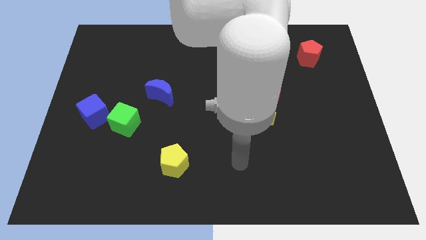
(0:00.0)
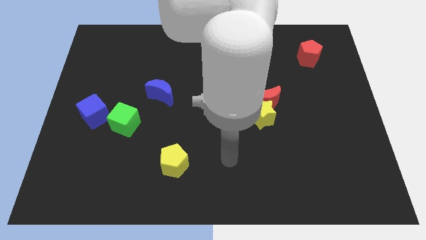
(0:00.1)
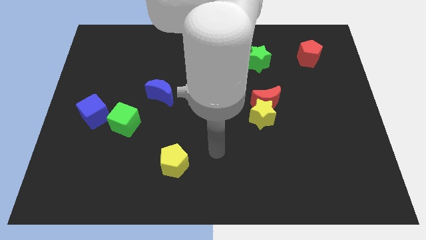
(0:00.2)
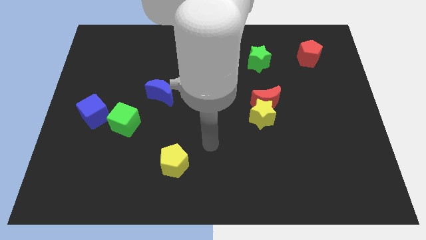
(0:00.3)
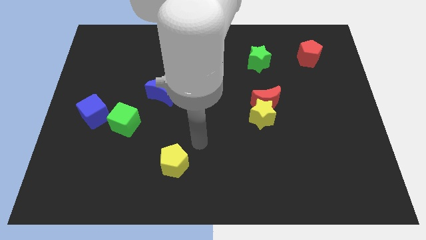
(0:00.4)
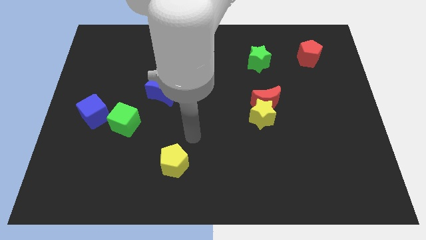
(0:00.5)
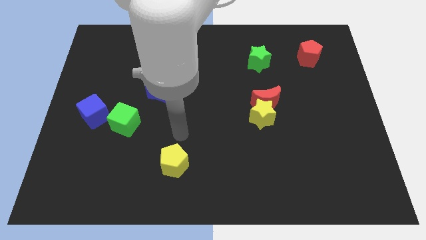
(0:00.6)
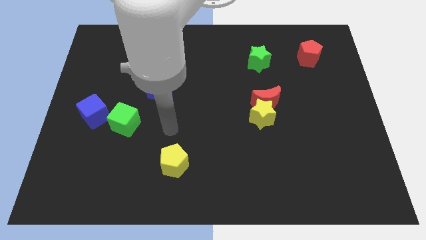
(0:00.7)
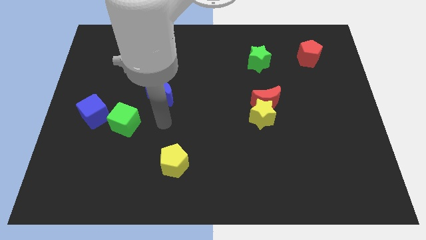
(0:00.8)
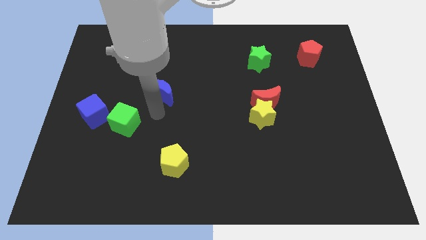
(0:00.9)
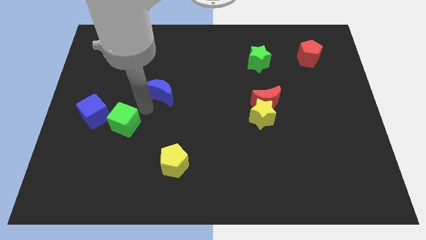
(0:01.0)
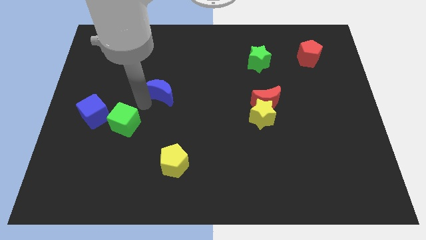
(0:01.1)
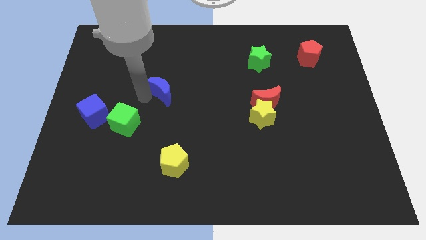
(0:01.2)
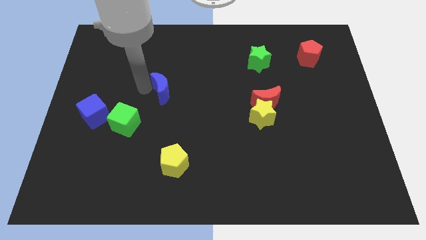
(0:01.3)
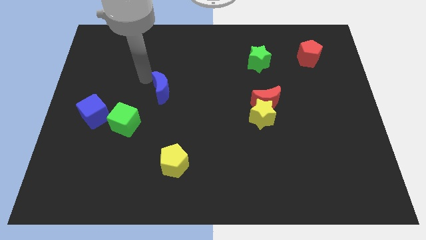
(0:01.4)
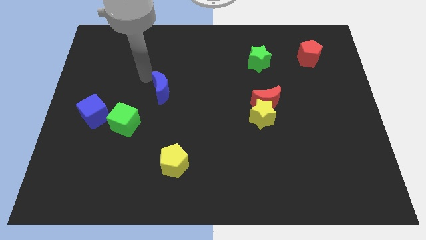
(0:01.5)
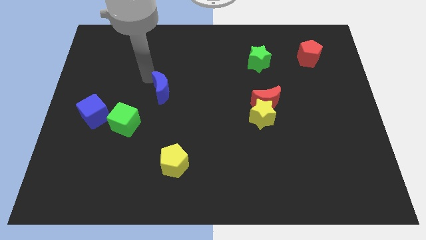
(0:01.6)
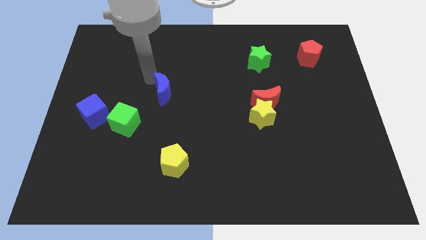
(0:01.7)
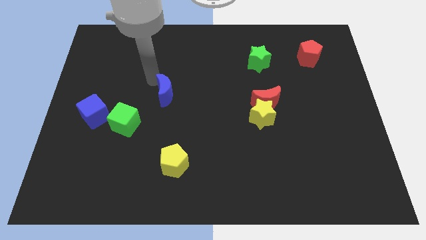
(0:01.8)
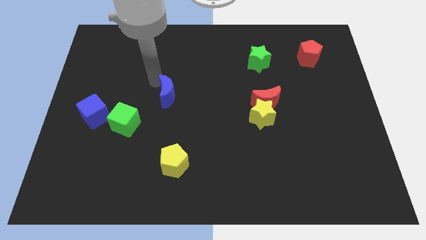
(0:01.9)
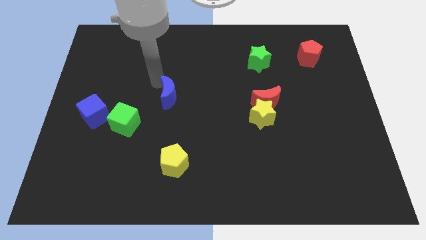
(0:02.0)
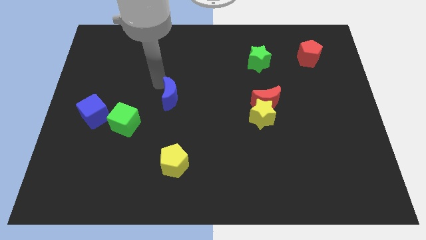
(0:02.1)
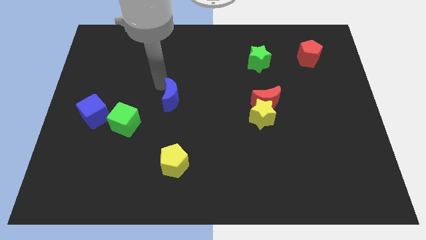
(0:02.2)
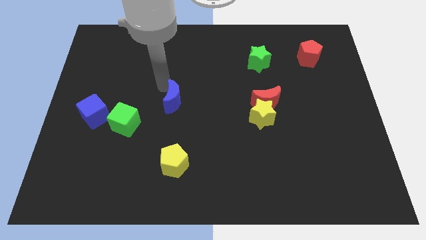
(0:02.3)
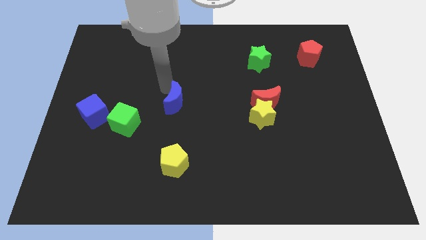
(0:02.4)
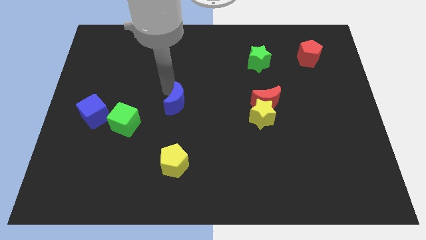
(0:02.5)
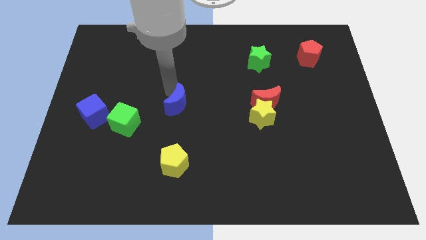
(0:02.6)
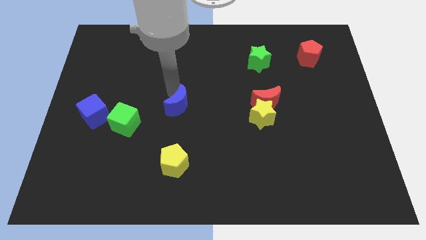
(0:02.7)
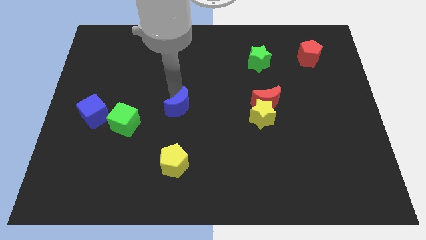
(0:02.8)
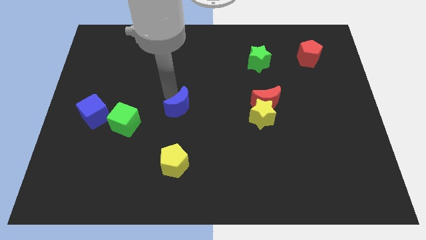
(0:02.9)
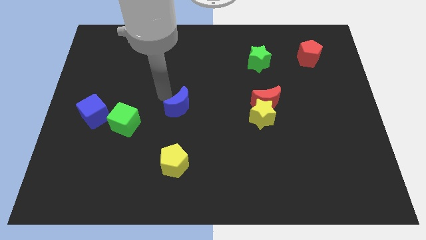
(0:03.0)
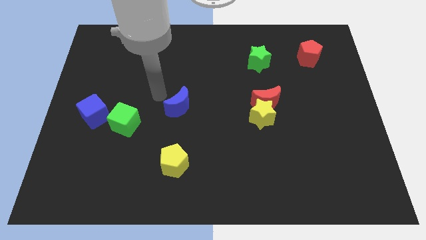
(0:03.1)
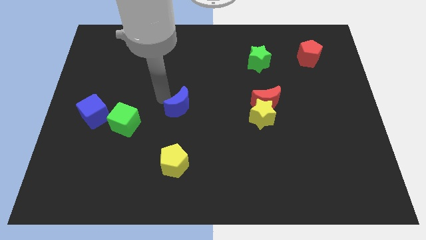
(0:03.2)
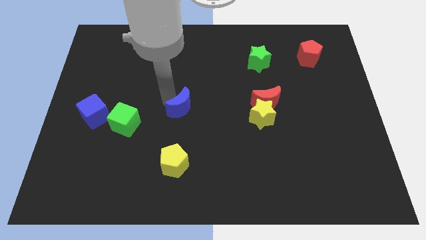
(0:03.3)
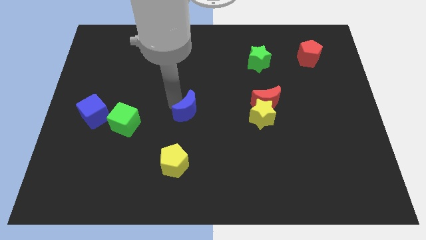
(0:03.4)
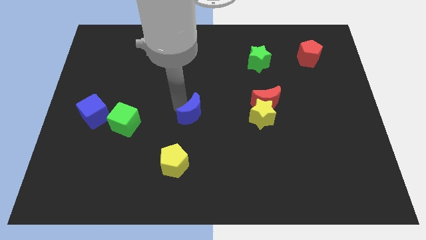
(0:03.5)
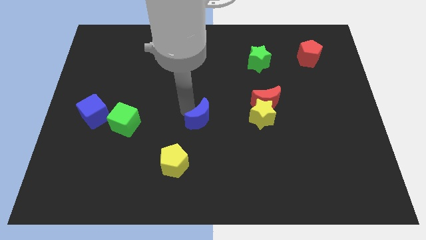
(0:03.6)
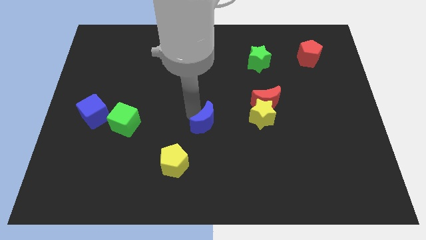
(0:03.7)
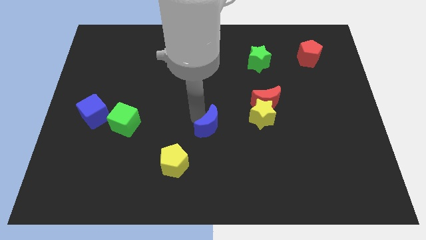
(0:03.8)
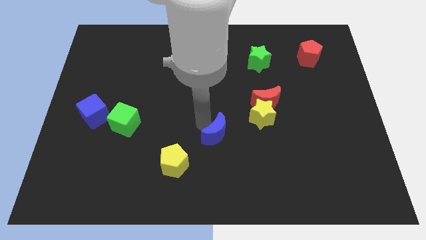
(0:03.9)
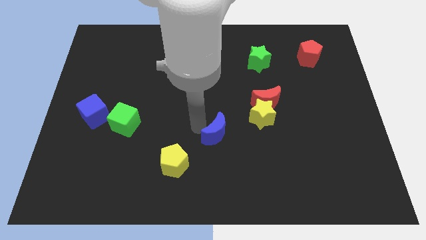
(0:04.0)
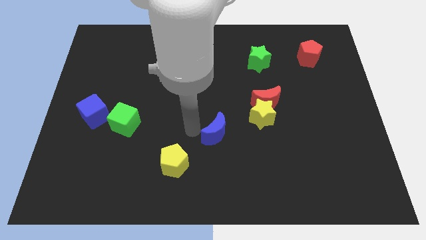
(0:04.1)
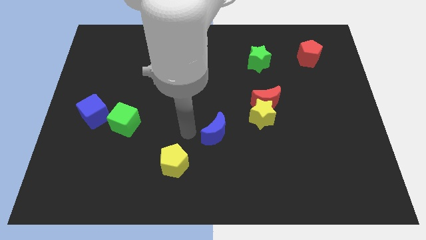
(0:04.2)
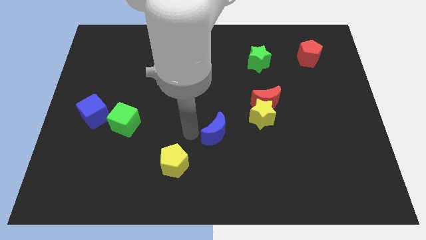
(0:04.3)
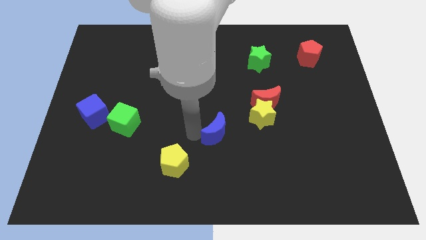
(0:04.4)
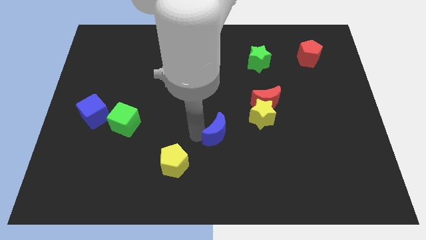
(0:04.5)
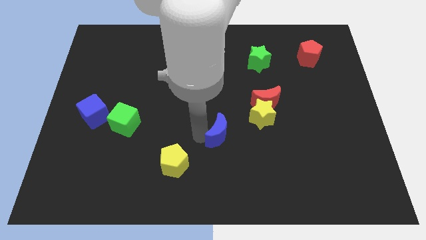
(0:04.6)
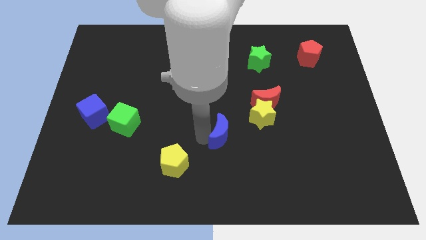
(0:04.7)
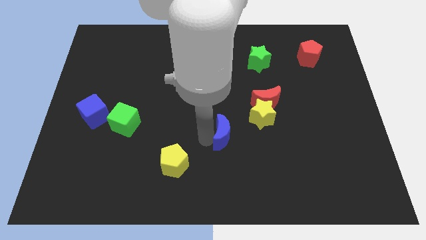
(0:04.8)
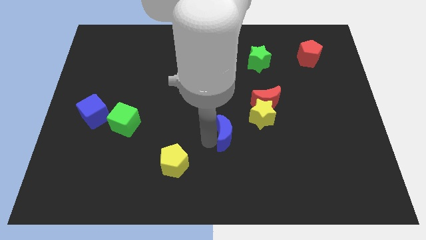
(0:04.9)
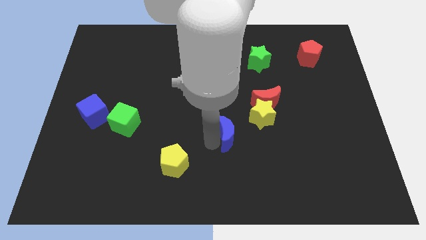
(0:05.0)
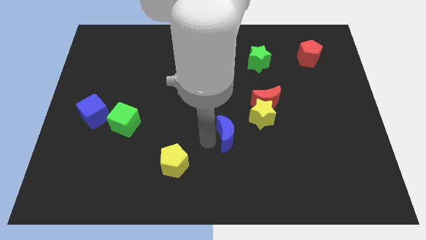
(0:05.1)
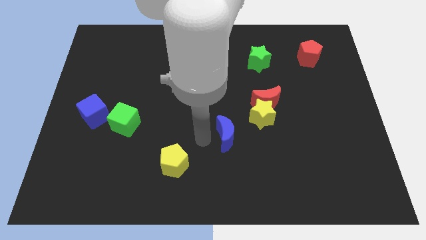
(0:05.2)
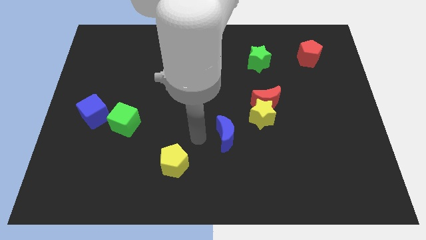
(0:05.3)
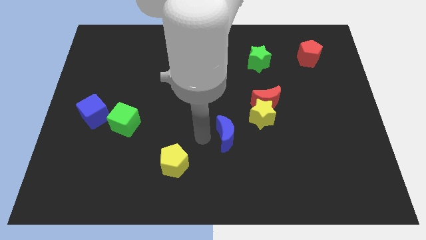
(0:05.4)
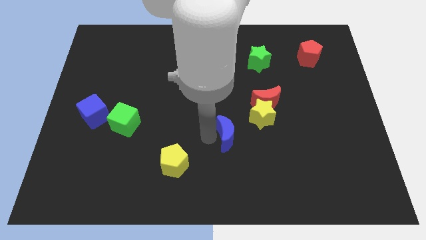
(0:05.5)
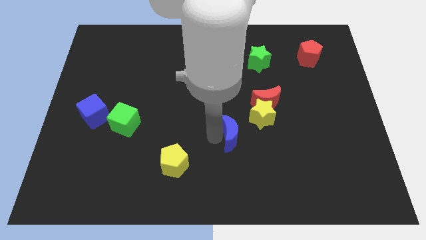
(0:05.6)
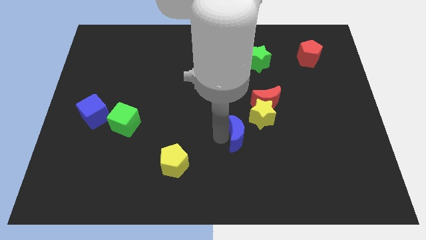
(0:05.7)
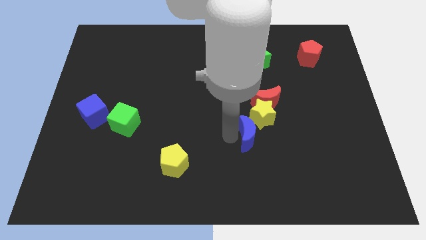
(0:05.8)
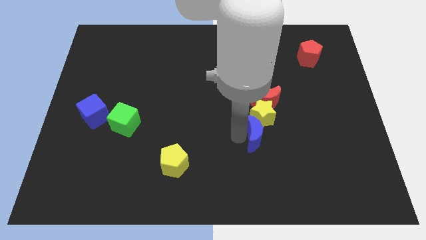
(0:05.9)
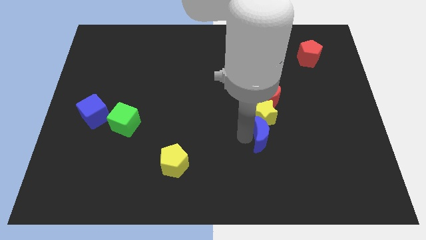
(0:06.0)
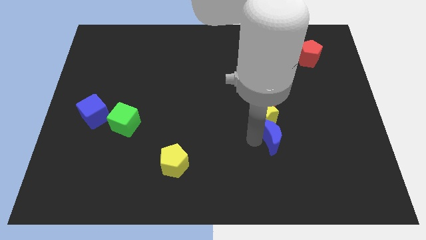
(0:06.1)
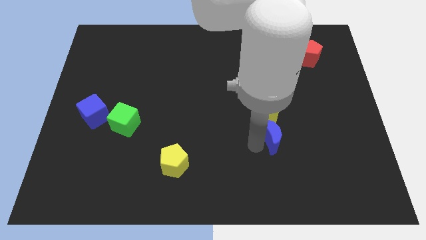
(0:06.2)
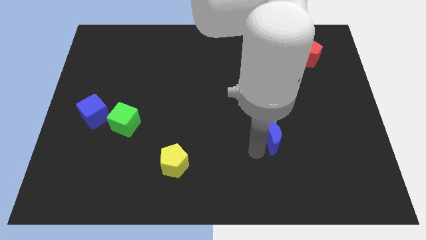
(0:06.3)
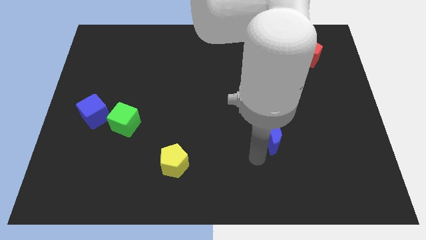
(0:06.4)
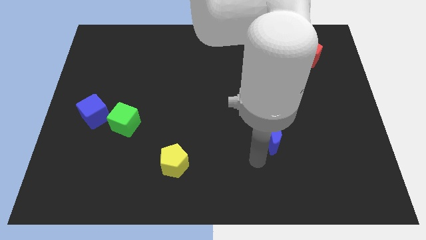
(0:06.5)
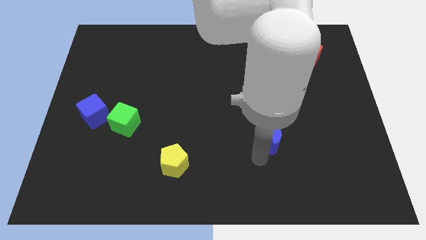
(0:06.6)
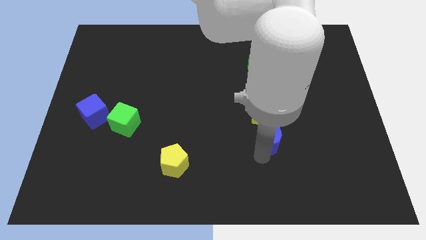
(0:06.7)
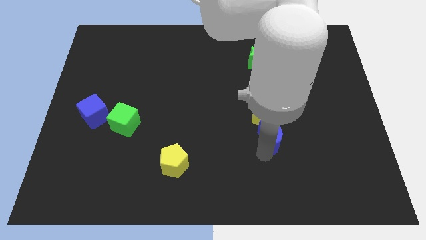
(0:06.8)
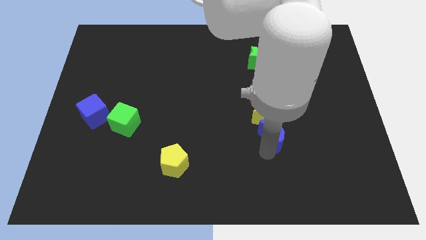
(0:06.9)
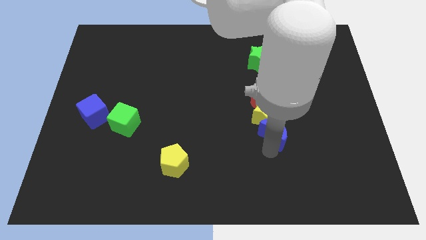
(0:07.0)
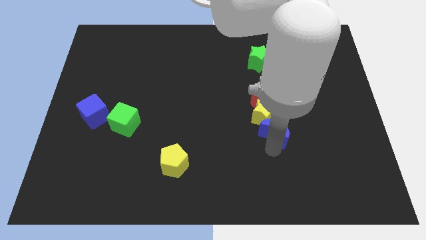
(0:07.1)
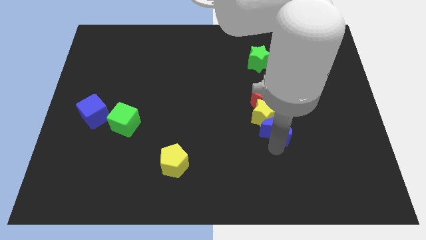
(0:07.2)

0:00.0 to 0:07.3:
slide the blue moon right

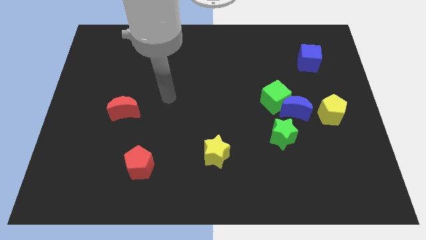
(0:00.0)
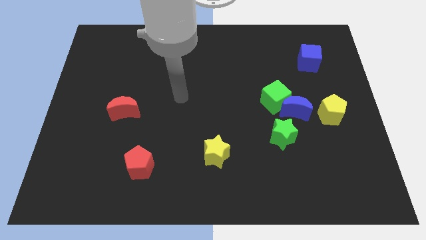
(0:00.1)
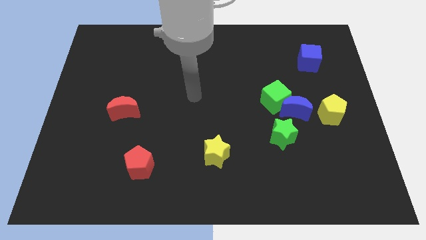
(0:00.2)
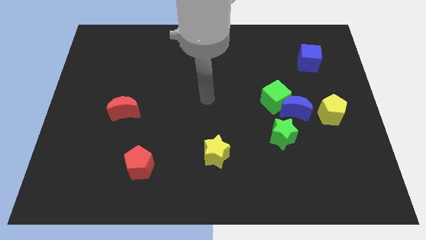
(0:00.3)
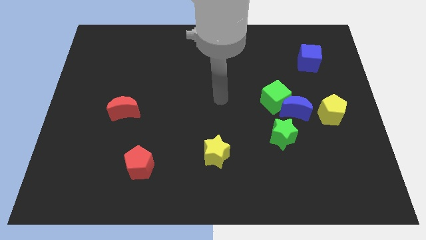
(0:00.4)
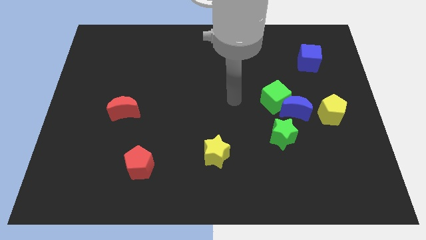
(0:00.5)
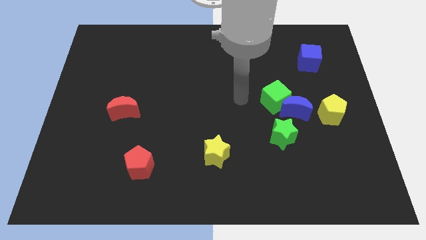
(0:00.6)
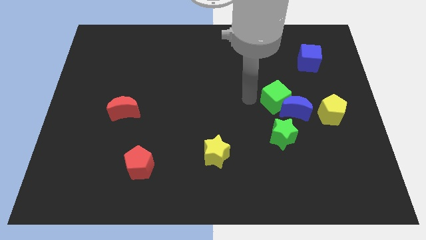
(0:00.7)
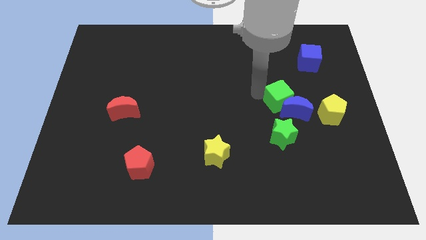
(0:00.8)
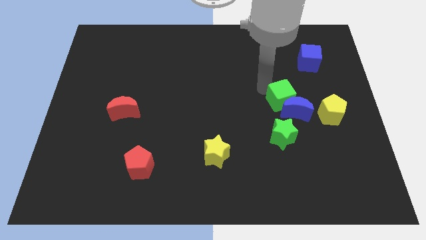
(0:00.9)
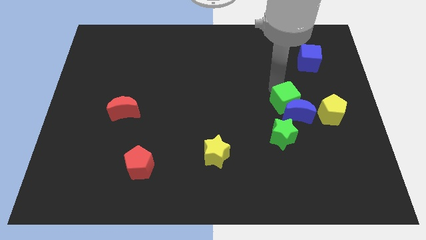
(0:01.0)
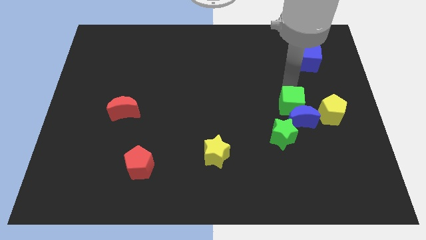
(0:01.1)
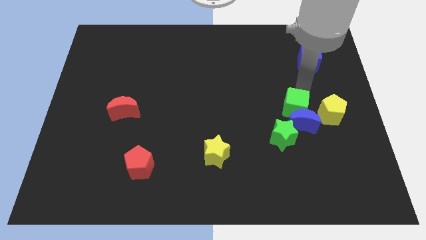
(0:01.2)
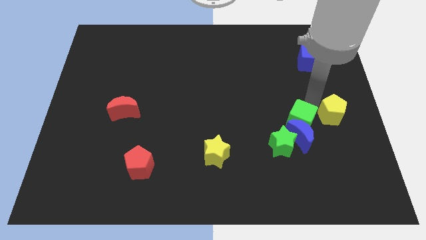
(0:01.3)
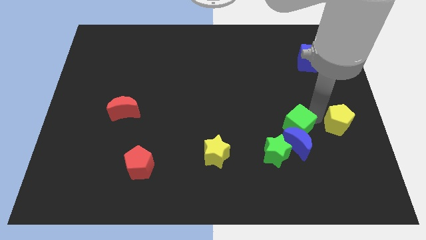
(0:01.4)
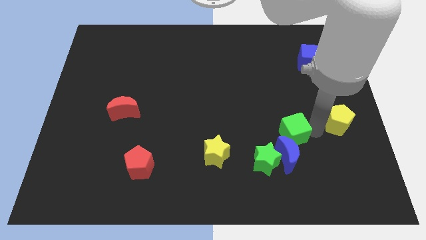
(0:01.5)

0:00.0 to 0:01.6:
push the blue moon diagonally down and left a little bit
